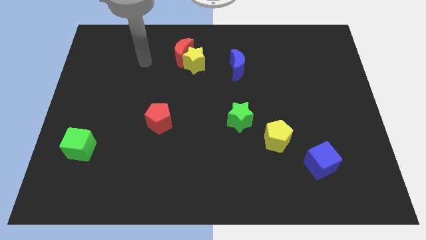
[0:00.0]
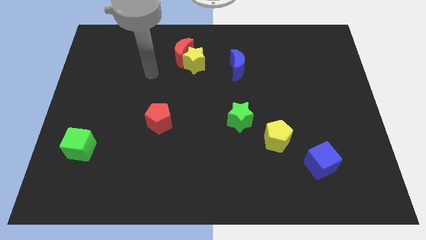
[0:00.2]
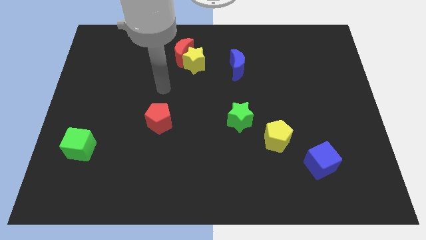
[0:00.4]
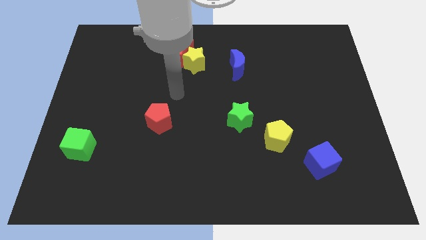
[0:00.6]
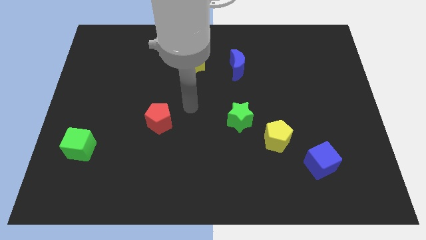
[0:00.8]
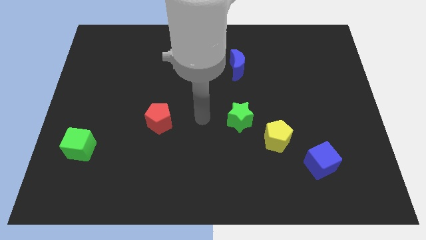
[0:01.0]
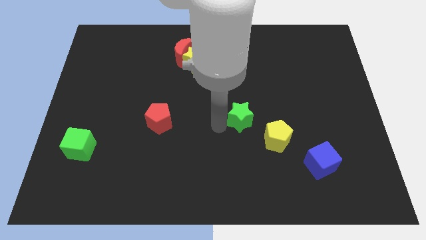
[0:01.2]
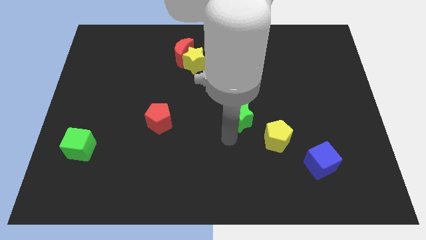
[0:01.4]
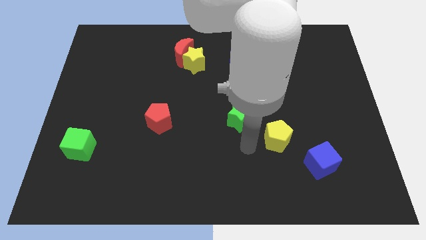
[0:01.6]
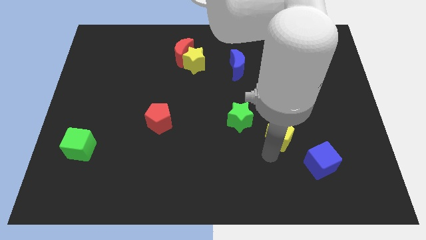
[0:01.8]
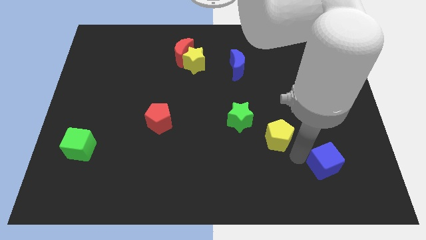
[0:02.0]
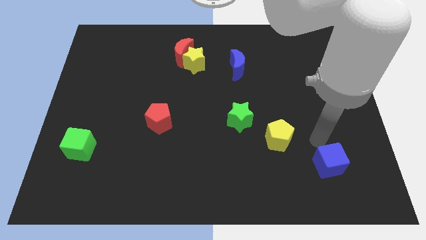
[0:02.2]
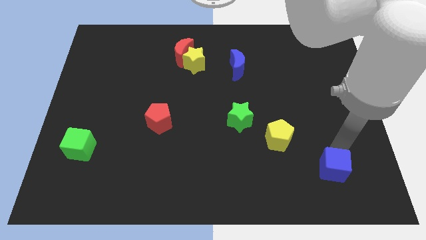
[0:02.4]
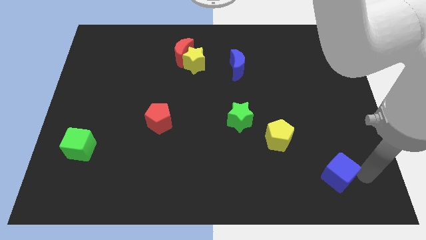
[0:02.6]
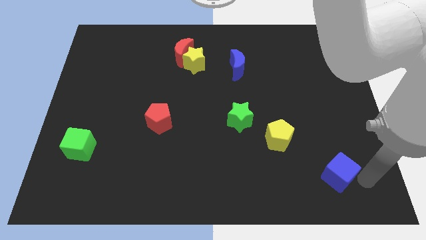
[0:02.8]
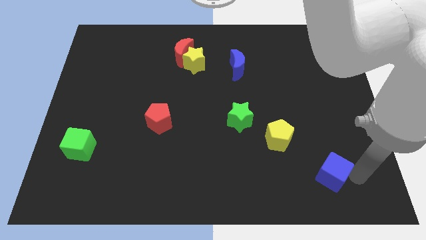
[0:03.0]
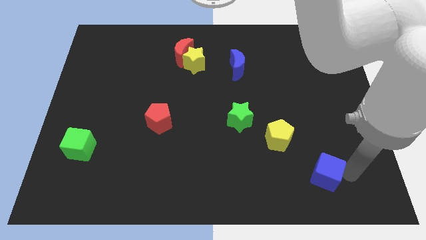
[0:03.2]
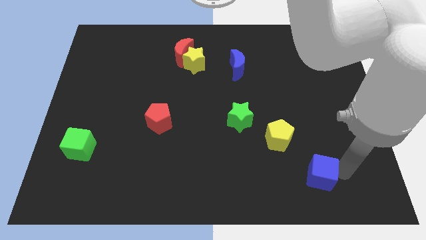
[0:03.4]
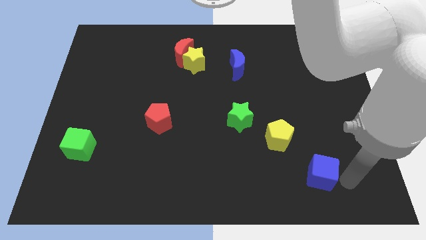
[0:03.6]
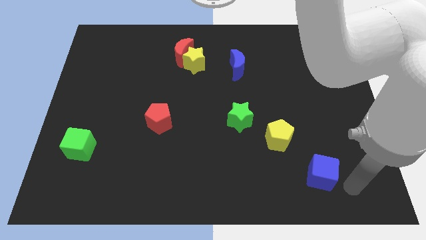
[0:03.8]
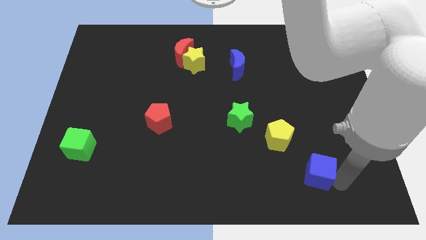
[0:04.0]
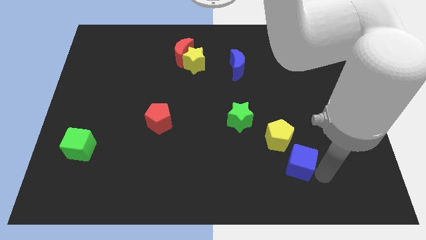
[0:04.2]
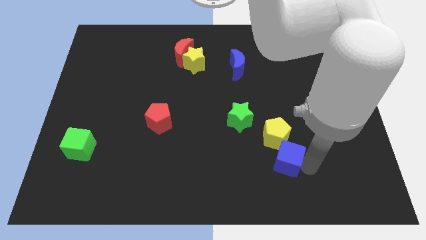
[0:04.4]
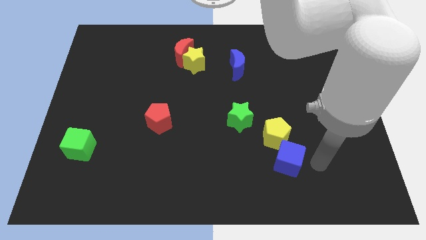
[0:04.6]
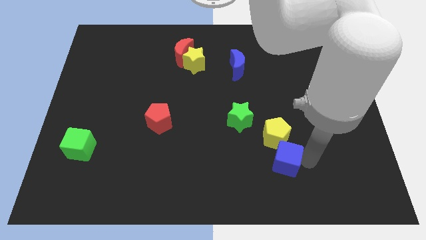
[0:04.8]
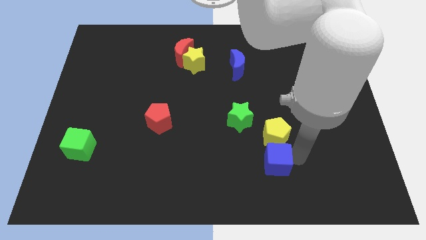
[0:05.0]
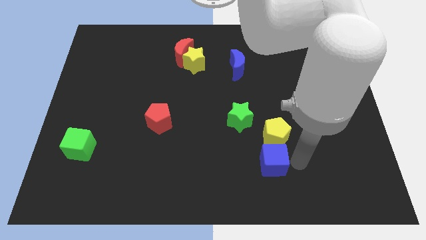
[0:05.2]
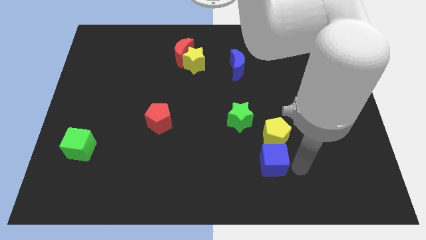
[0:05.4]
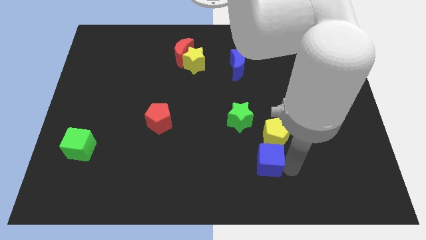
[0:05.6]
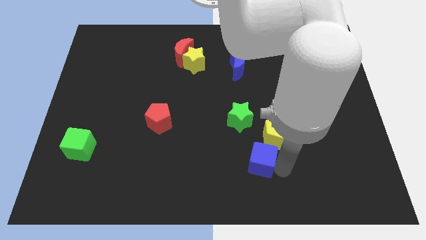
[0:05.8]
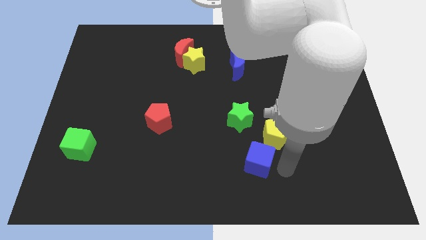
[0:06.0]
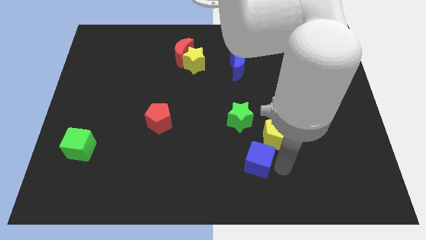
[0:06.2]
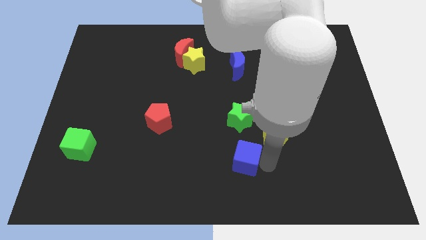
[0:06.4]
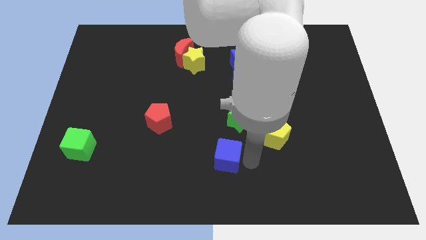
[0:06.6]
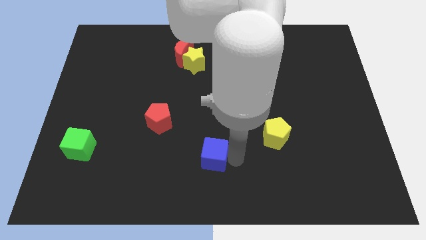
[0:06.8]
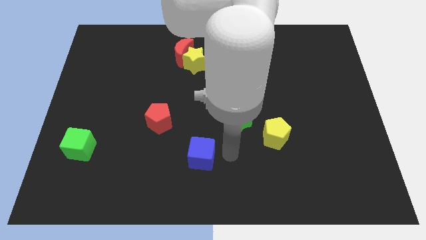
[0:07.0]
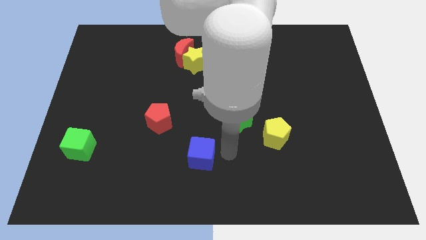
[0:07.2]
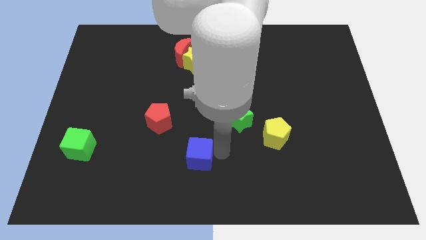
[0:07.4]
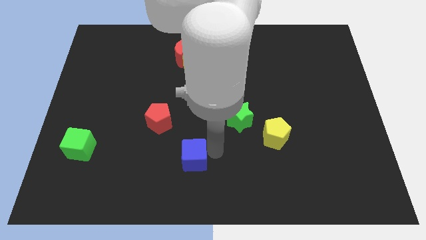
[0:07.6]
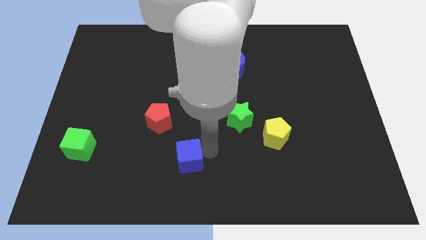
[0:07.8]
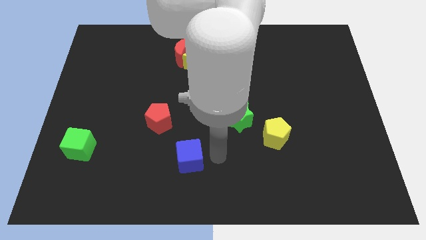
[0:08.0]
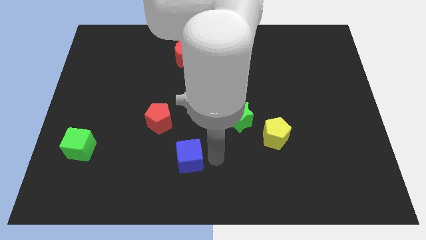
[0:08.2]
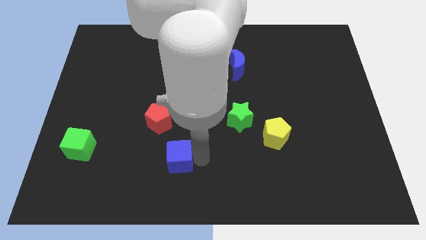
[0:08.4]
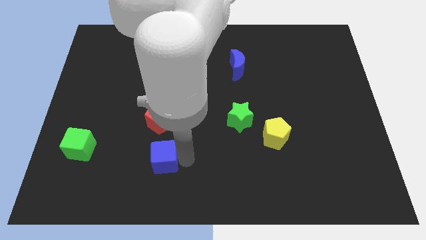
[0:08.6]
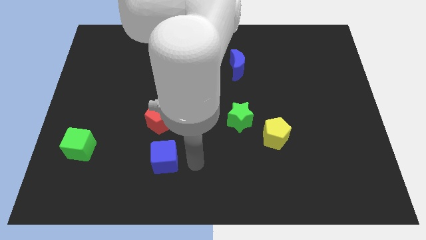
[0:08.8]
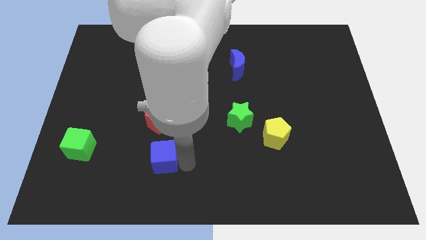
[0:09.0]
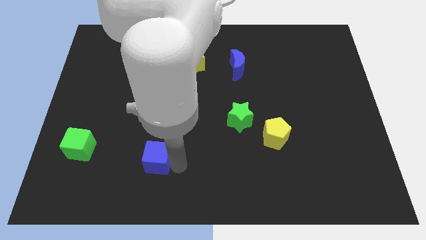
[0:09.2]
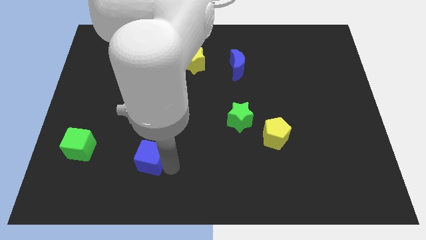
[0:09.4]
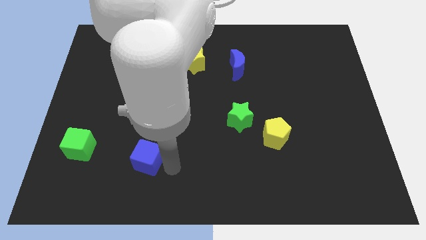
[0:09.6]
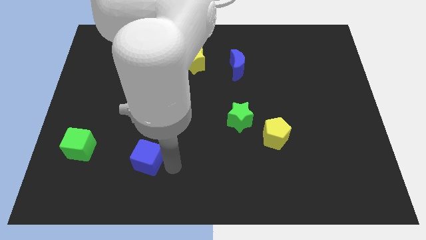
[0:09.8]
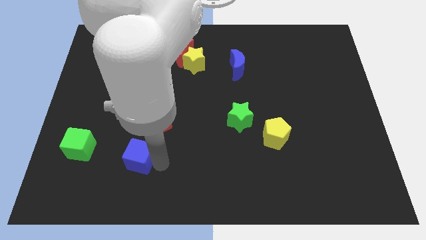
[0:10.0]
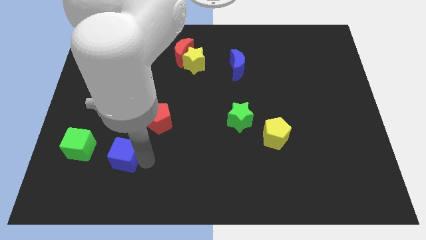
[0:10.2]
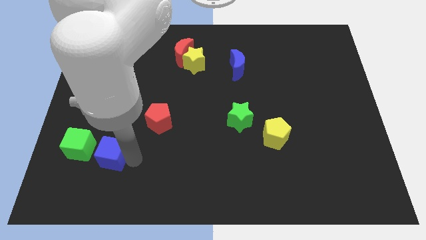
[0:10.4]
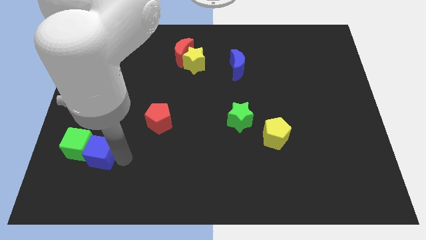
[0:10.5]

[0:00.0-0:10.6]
put the blue cube close to the green cube

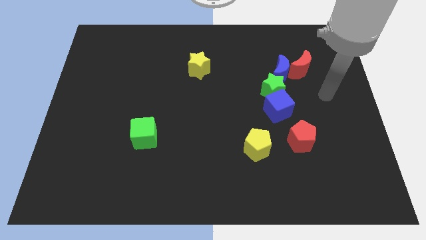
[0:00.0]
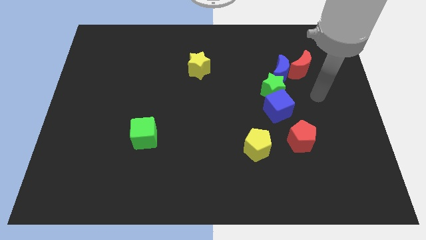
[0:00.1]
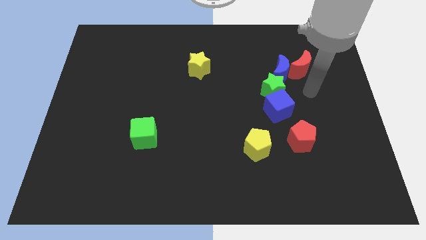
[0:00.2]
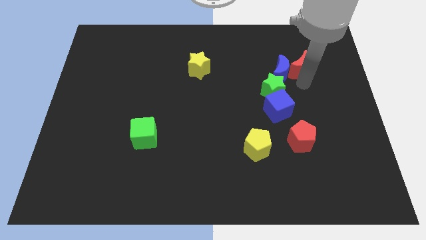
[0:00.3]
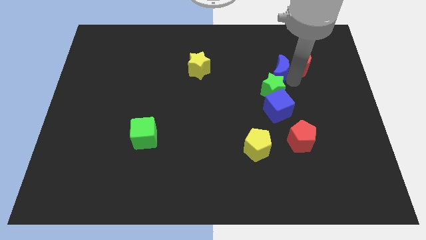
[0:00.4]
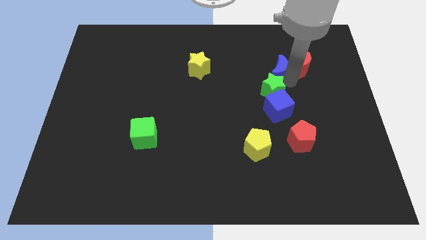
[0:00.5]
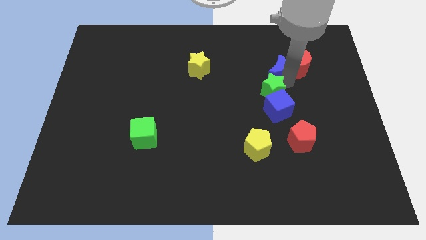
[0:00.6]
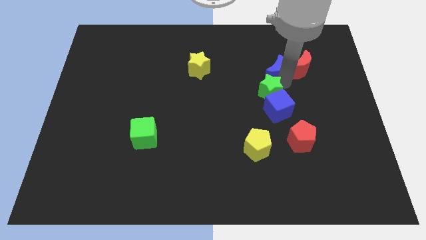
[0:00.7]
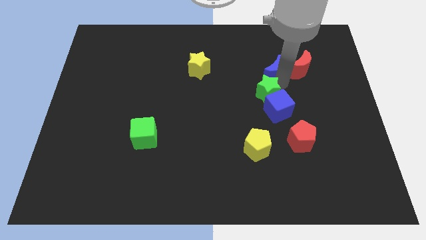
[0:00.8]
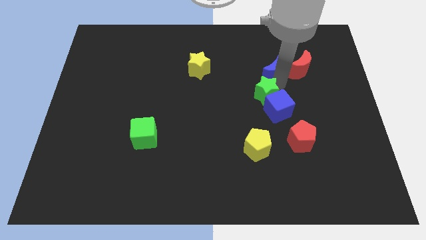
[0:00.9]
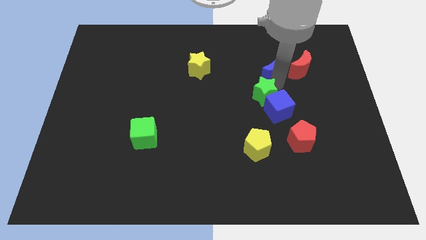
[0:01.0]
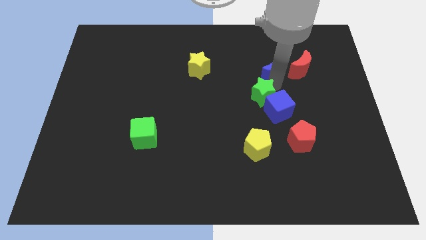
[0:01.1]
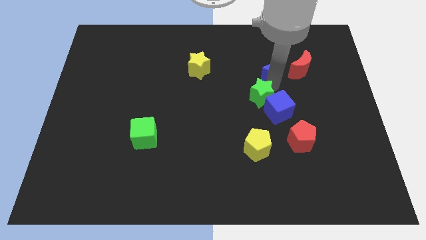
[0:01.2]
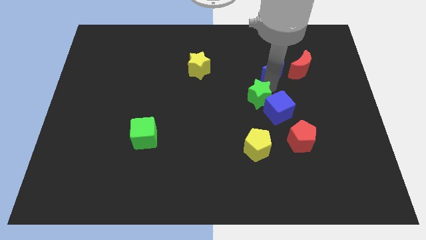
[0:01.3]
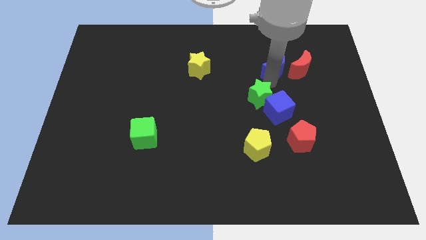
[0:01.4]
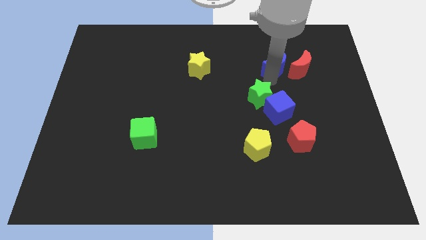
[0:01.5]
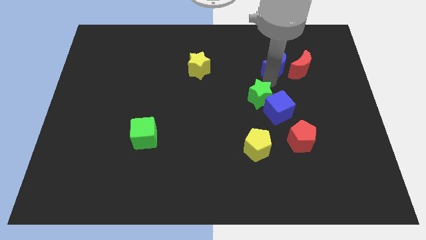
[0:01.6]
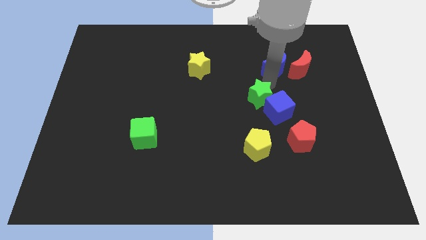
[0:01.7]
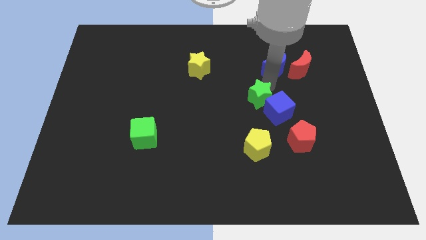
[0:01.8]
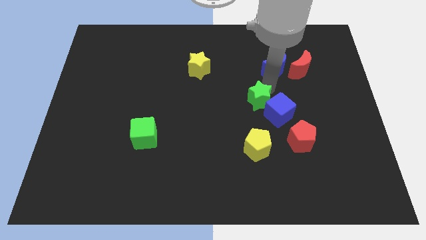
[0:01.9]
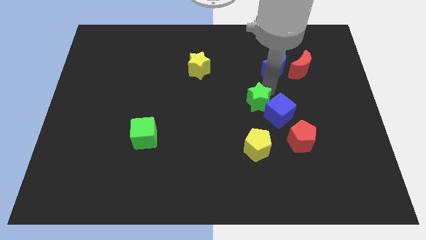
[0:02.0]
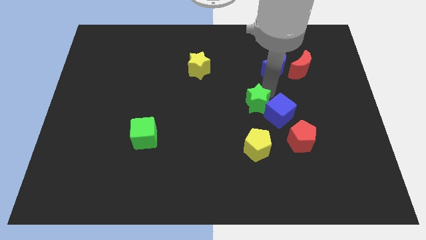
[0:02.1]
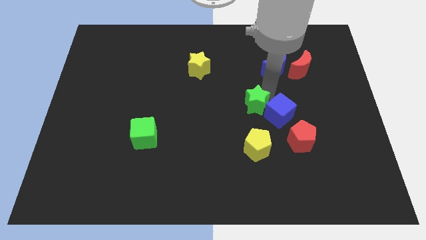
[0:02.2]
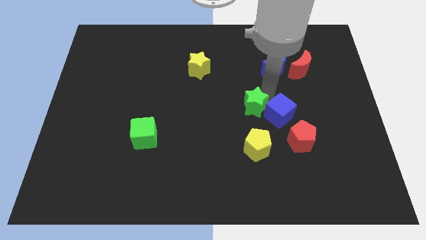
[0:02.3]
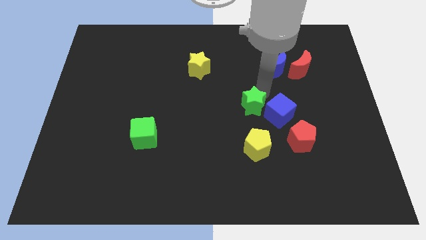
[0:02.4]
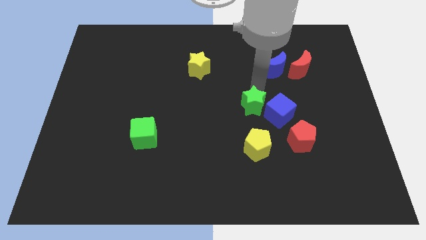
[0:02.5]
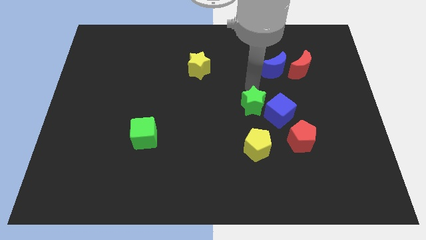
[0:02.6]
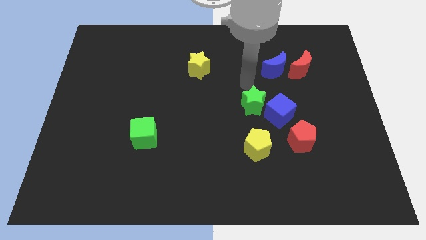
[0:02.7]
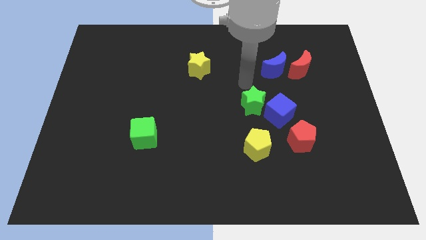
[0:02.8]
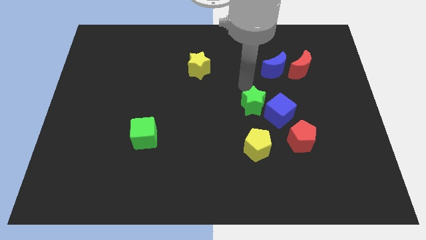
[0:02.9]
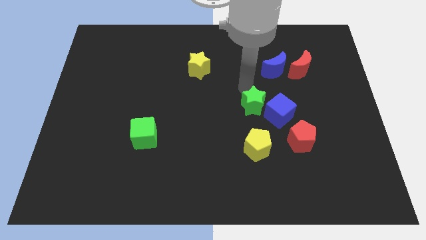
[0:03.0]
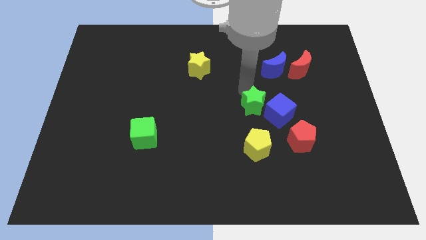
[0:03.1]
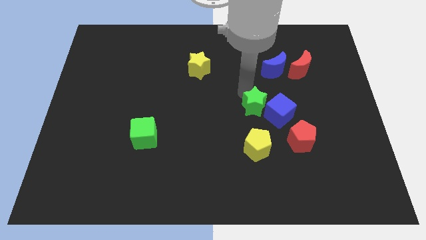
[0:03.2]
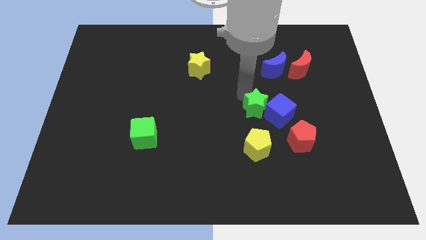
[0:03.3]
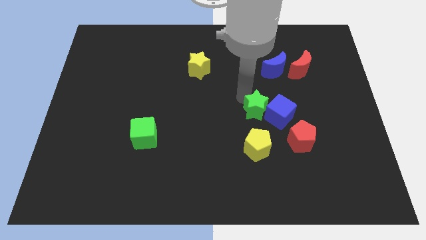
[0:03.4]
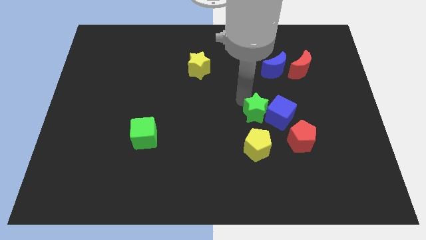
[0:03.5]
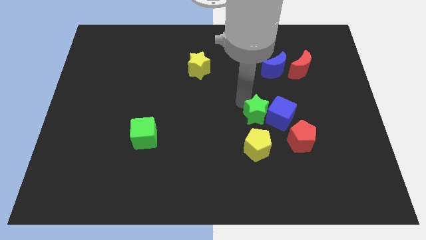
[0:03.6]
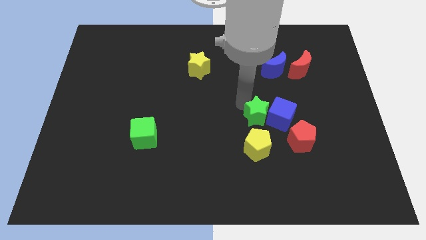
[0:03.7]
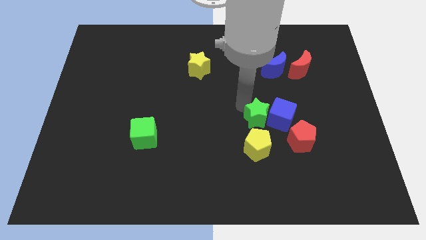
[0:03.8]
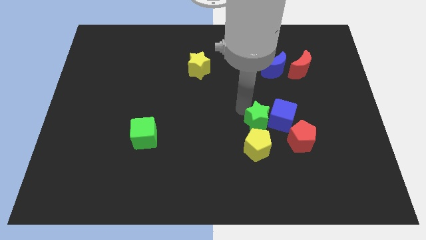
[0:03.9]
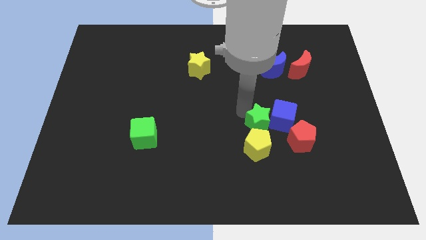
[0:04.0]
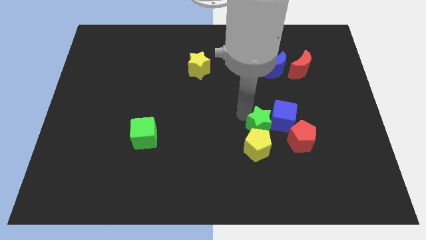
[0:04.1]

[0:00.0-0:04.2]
move the green star close to the yellow pentagon
